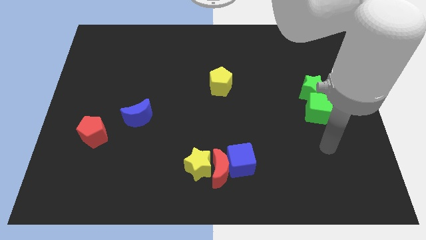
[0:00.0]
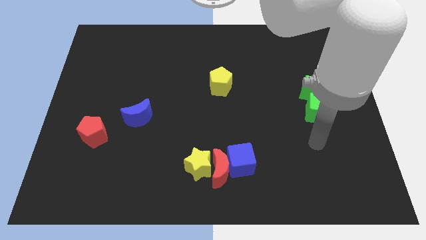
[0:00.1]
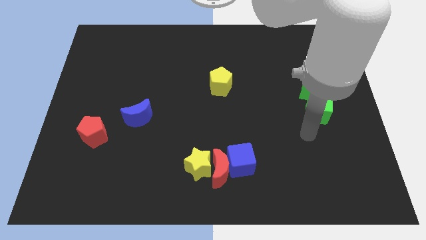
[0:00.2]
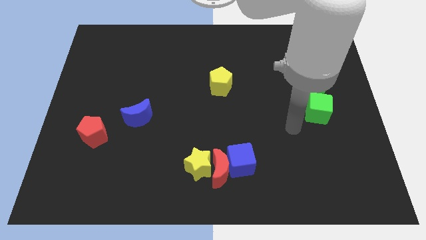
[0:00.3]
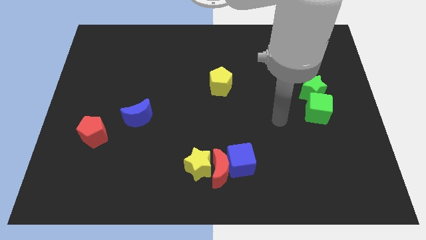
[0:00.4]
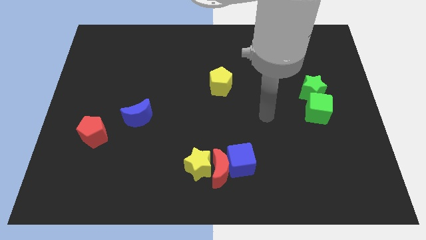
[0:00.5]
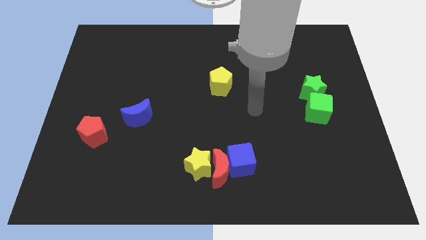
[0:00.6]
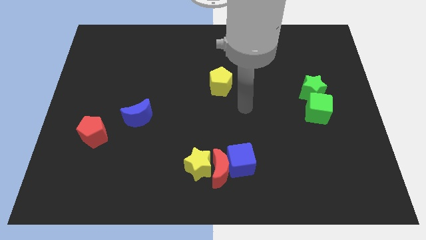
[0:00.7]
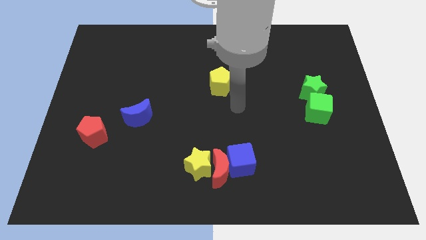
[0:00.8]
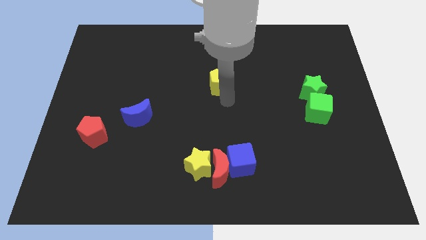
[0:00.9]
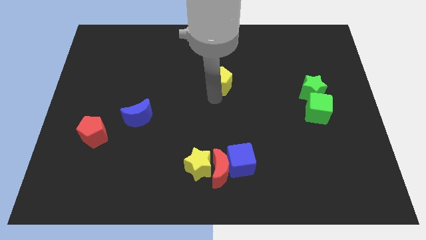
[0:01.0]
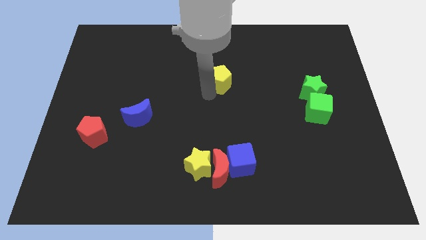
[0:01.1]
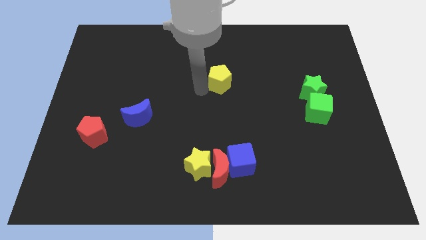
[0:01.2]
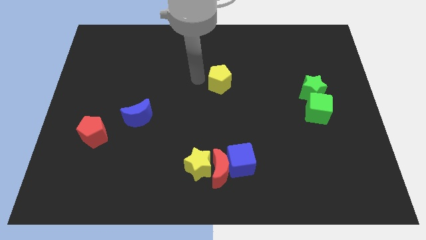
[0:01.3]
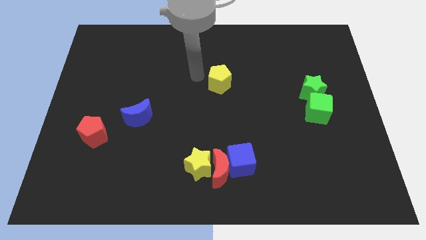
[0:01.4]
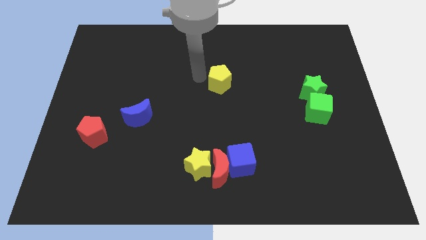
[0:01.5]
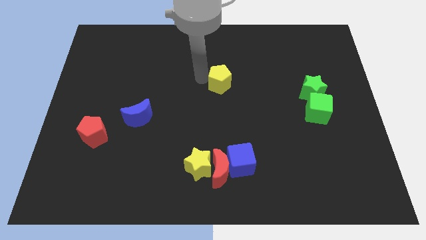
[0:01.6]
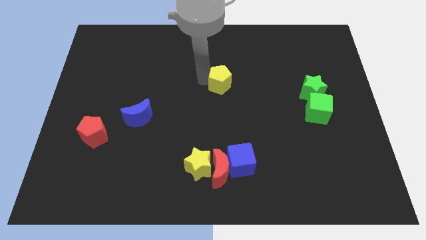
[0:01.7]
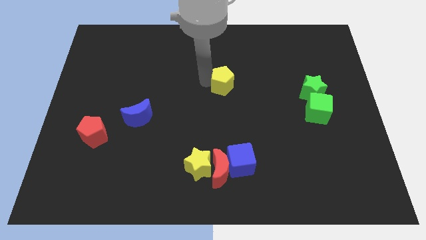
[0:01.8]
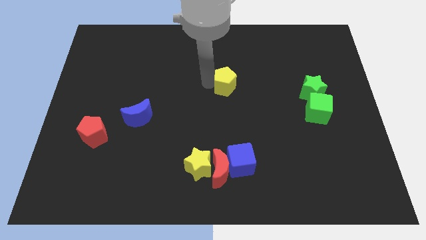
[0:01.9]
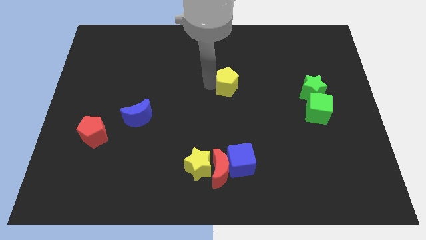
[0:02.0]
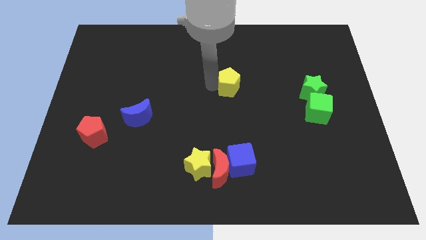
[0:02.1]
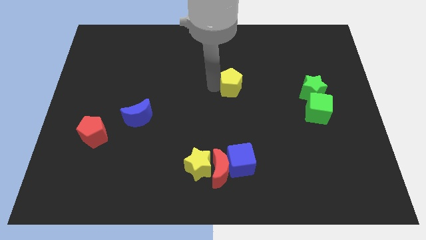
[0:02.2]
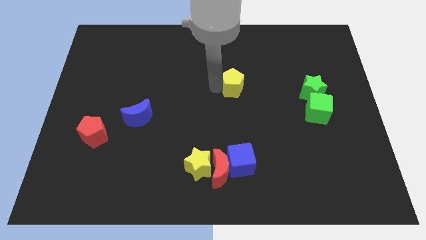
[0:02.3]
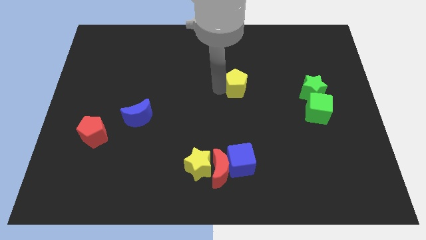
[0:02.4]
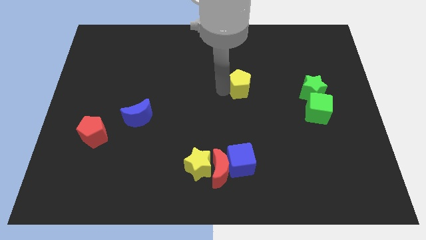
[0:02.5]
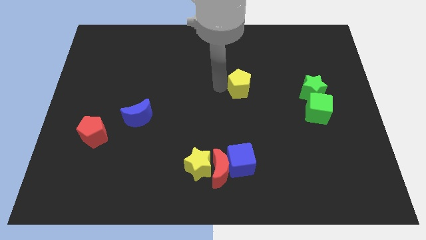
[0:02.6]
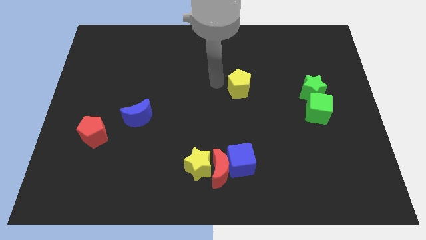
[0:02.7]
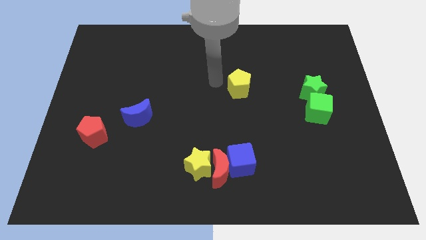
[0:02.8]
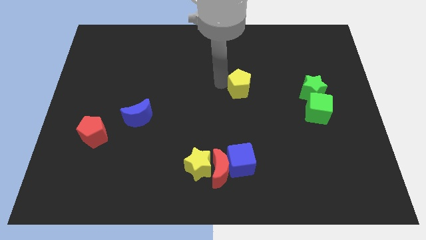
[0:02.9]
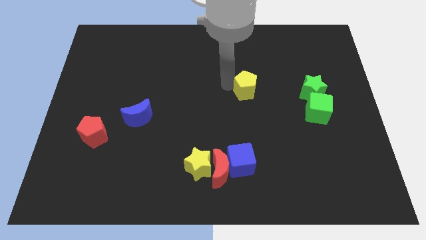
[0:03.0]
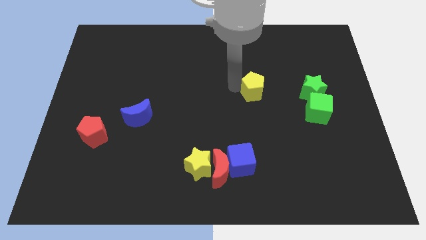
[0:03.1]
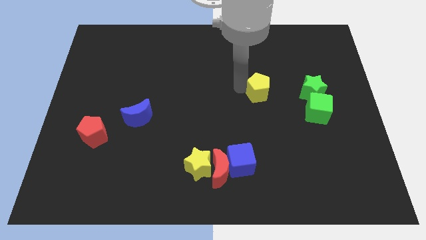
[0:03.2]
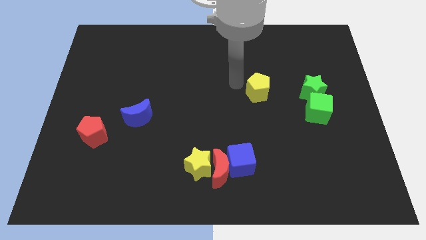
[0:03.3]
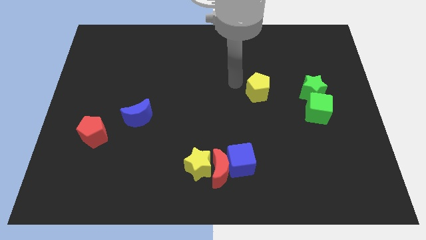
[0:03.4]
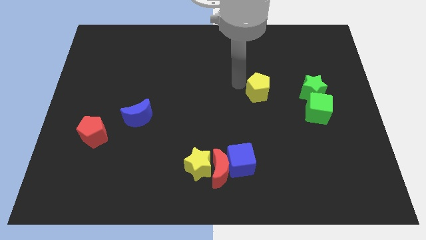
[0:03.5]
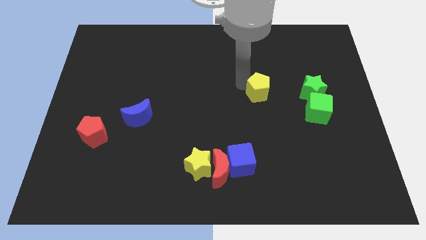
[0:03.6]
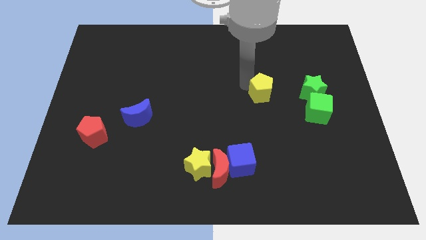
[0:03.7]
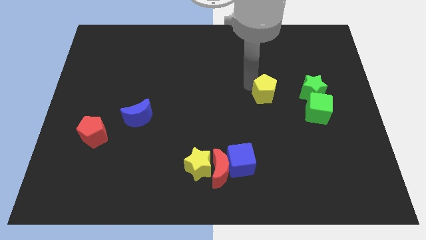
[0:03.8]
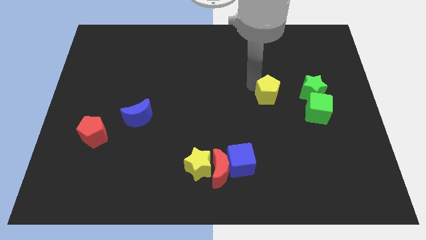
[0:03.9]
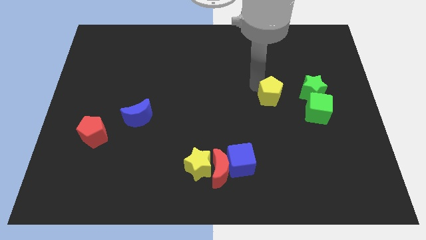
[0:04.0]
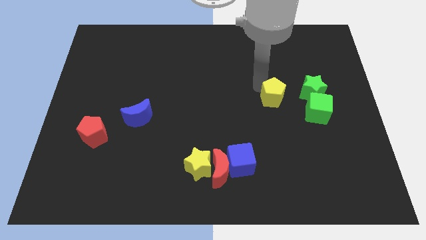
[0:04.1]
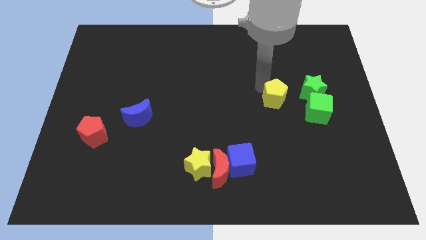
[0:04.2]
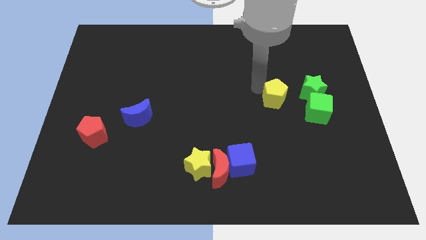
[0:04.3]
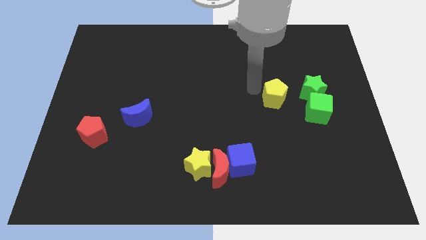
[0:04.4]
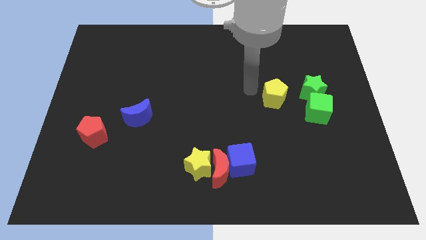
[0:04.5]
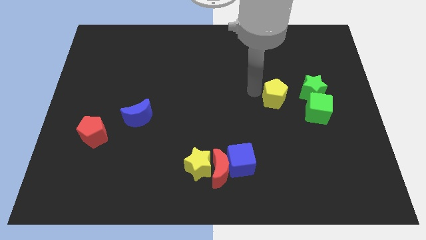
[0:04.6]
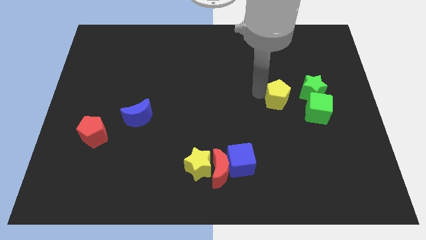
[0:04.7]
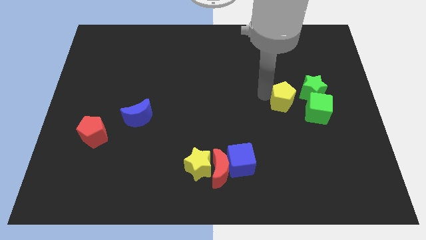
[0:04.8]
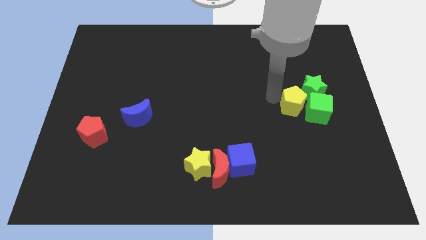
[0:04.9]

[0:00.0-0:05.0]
put the yellow pentagon to the green cube

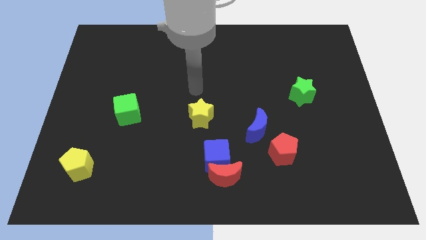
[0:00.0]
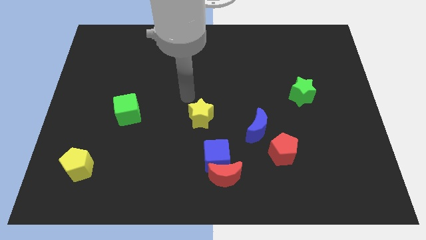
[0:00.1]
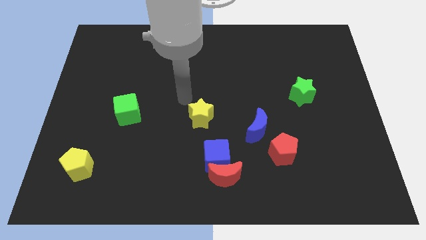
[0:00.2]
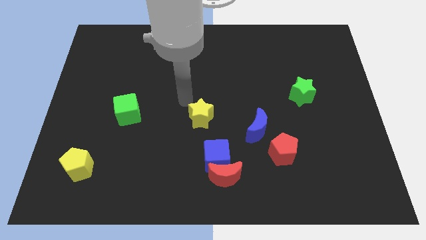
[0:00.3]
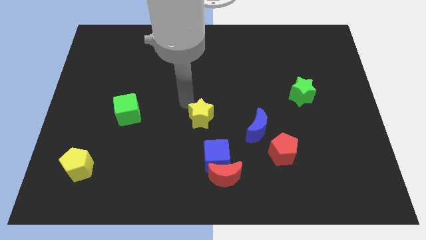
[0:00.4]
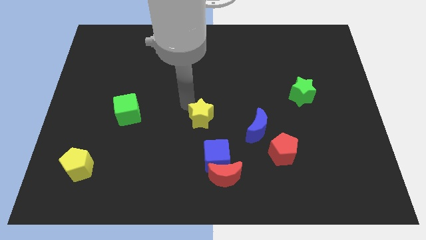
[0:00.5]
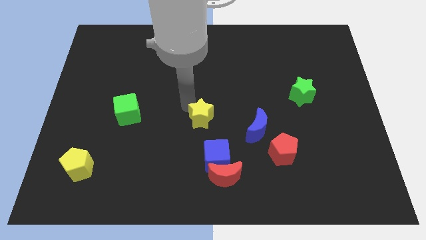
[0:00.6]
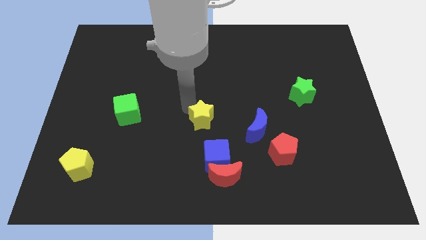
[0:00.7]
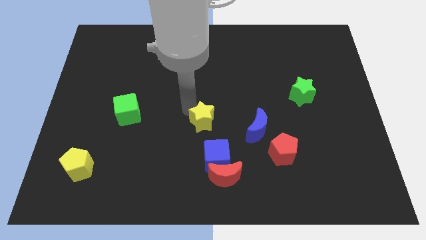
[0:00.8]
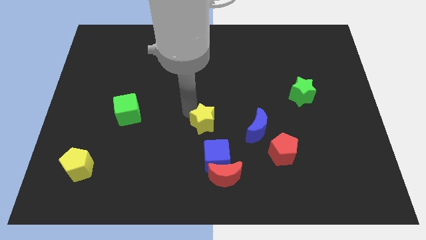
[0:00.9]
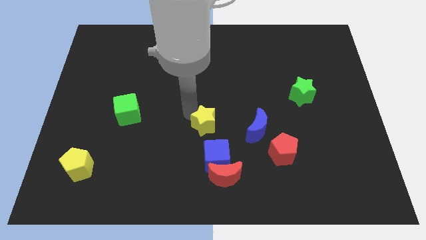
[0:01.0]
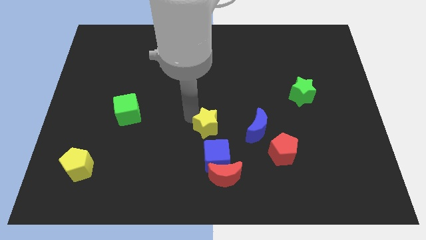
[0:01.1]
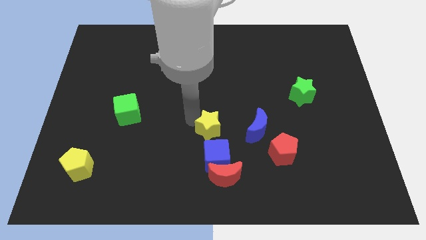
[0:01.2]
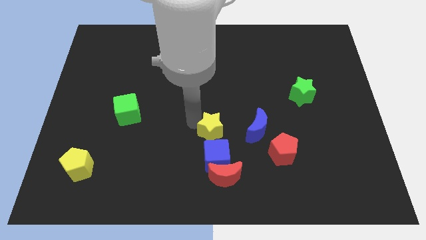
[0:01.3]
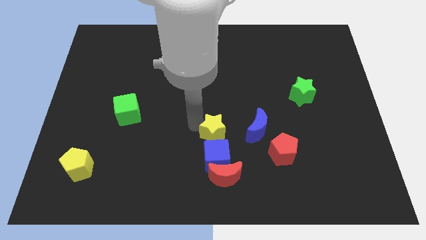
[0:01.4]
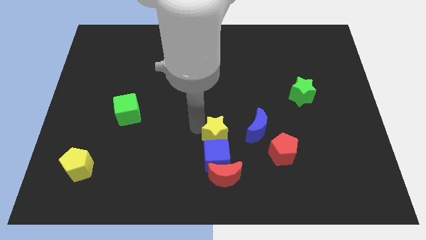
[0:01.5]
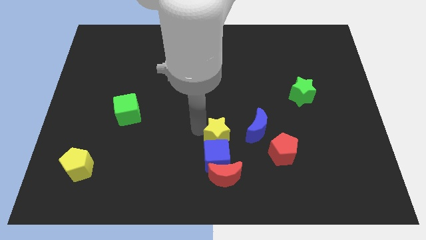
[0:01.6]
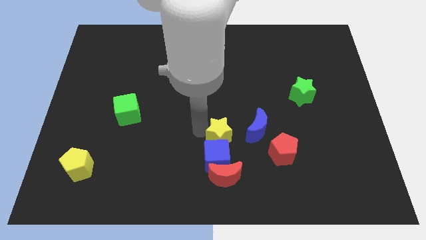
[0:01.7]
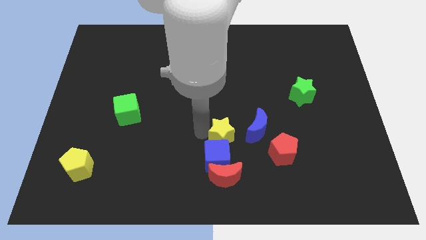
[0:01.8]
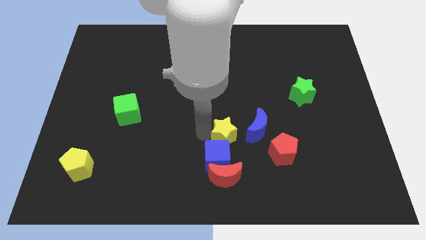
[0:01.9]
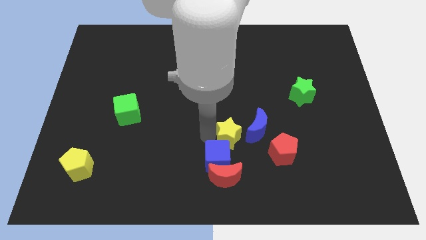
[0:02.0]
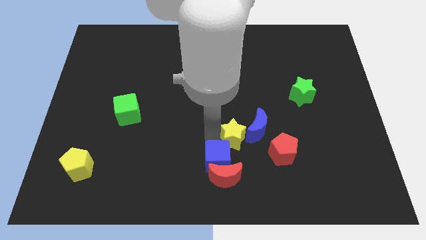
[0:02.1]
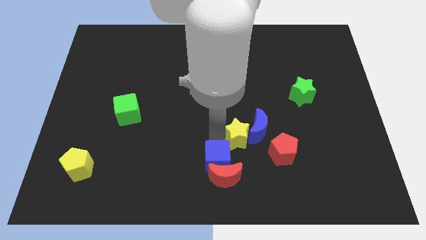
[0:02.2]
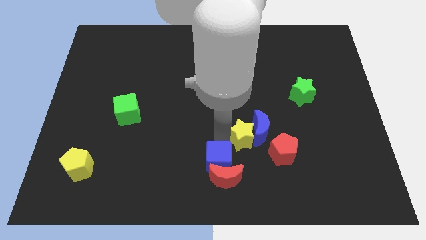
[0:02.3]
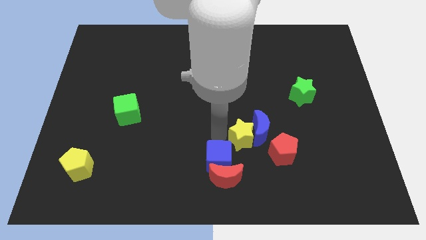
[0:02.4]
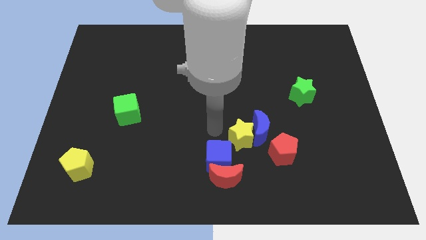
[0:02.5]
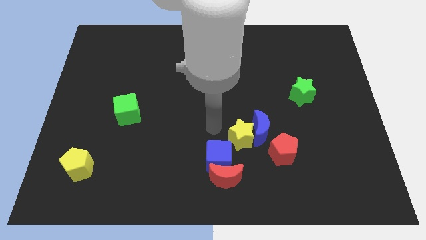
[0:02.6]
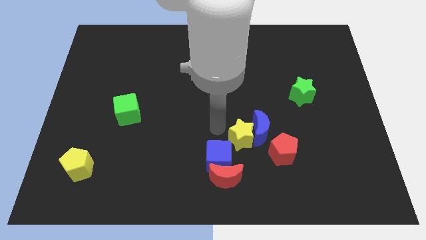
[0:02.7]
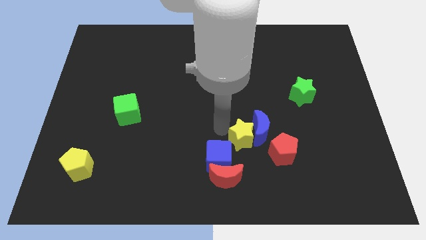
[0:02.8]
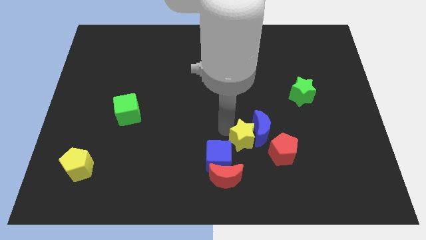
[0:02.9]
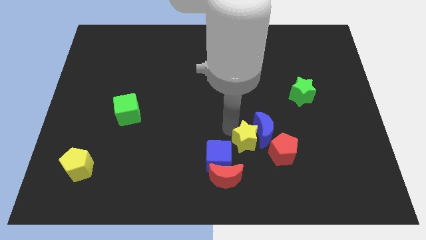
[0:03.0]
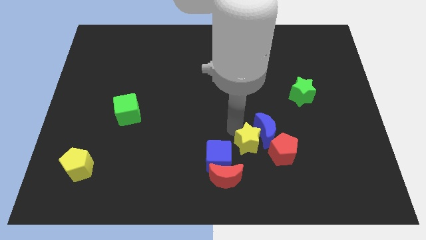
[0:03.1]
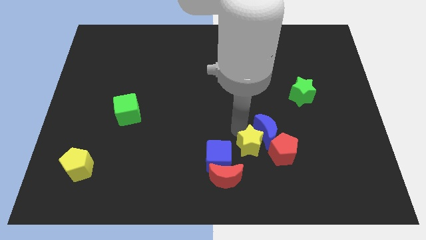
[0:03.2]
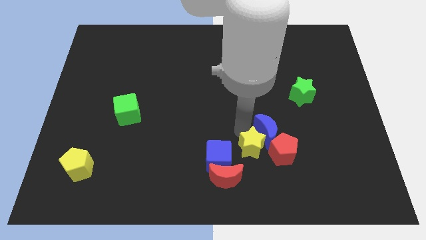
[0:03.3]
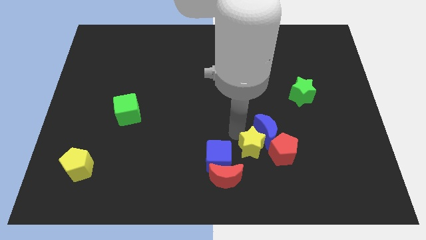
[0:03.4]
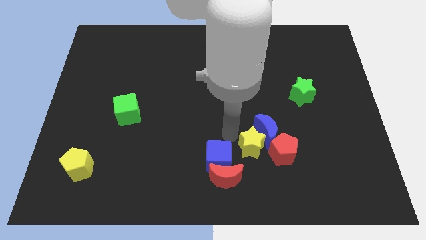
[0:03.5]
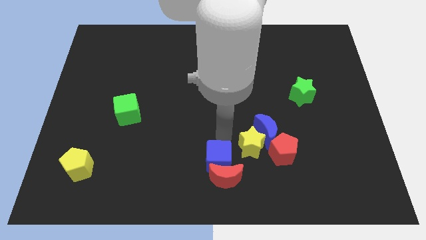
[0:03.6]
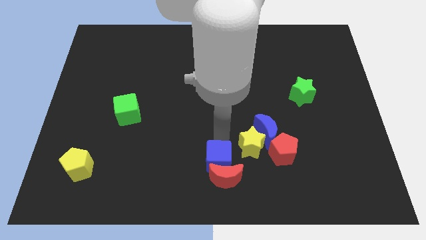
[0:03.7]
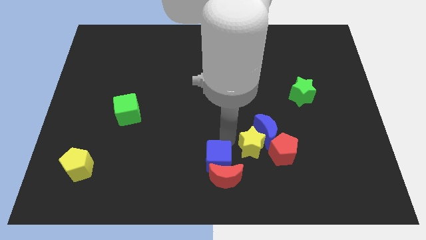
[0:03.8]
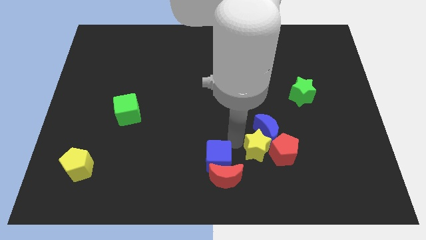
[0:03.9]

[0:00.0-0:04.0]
slide the yellow star to the red pentagon
